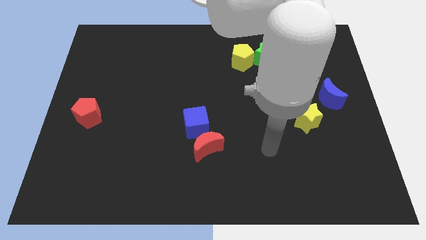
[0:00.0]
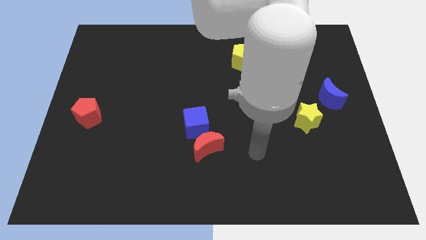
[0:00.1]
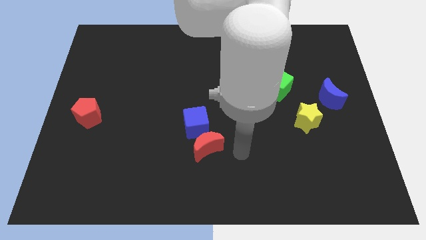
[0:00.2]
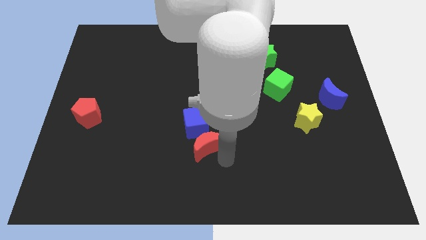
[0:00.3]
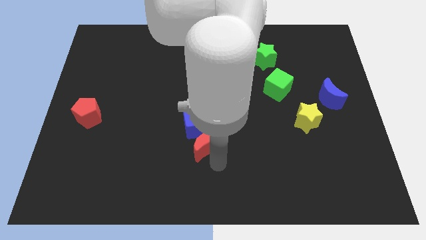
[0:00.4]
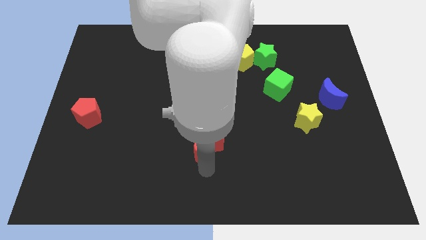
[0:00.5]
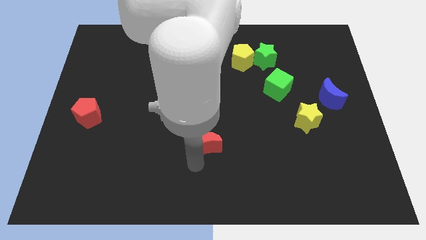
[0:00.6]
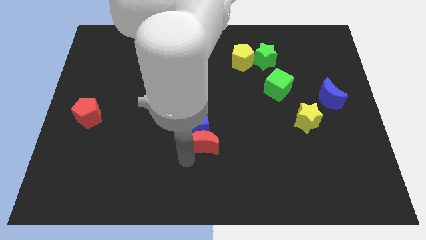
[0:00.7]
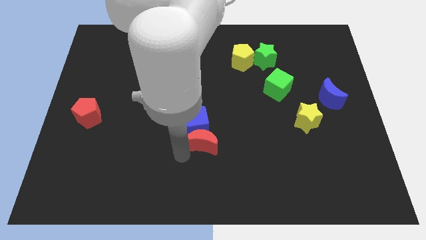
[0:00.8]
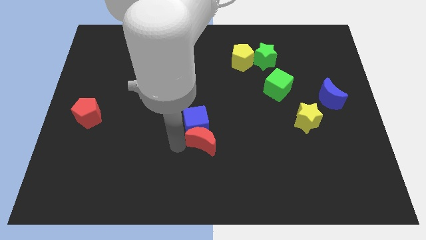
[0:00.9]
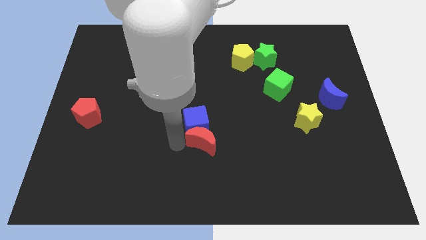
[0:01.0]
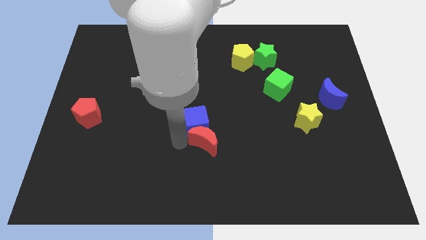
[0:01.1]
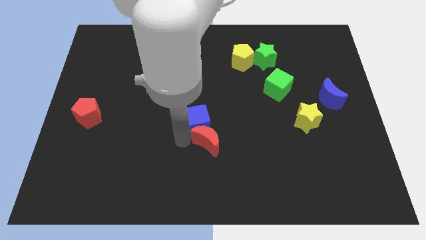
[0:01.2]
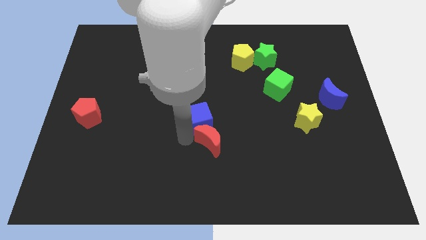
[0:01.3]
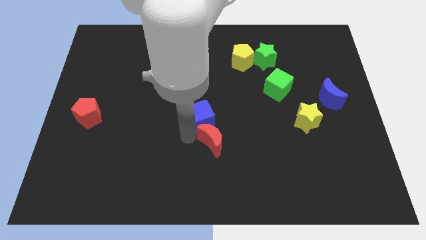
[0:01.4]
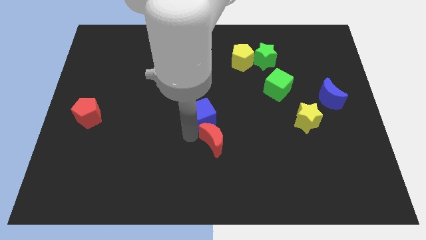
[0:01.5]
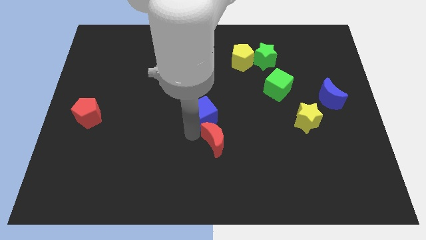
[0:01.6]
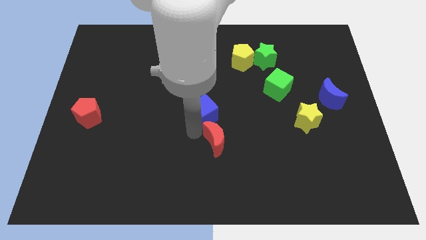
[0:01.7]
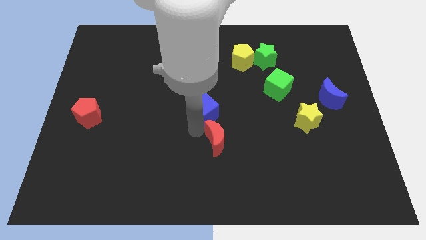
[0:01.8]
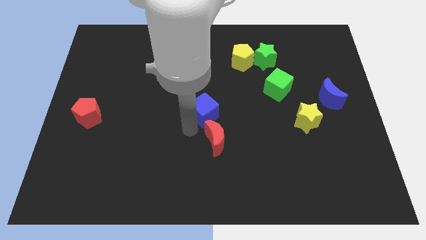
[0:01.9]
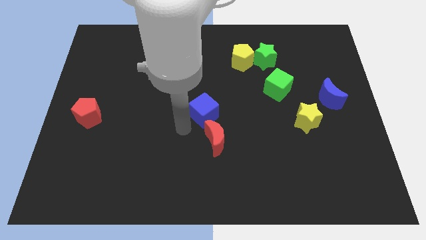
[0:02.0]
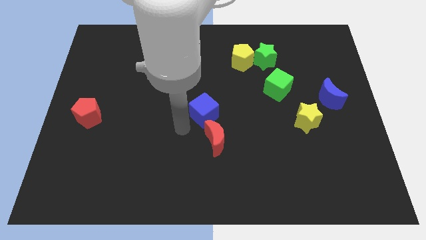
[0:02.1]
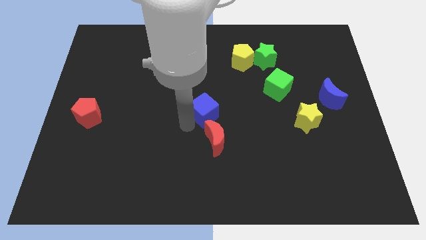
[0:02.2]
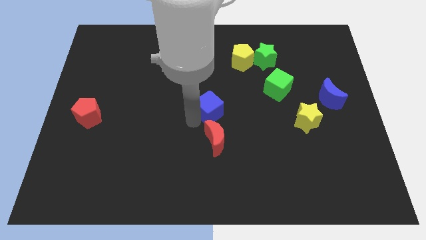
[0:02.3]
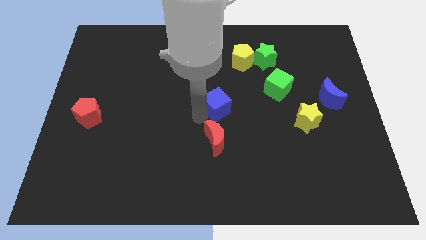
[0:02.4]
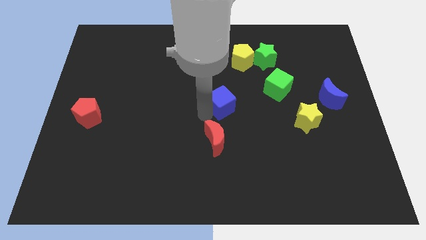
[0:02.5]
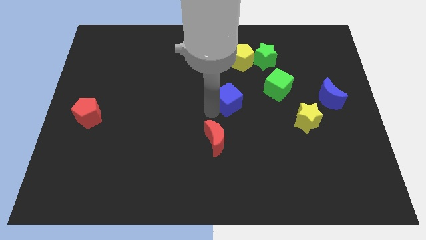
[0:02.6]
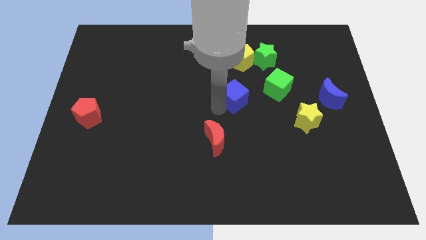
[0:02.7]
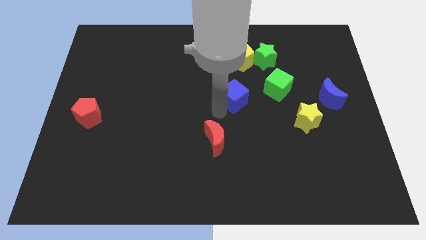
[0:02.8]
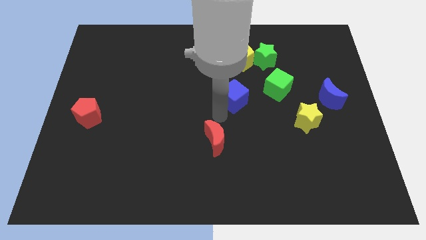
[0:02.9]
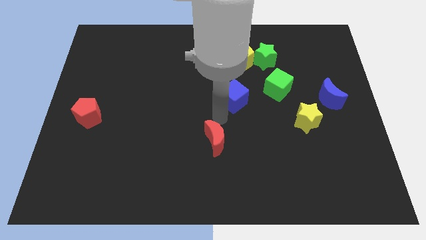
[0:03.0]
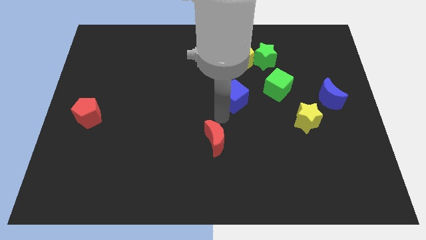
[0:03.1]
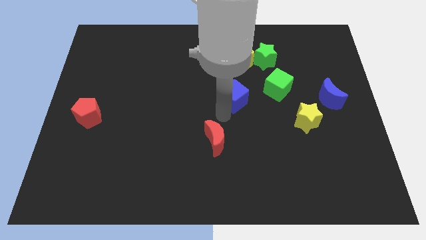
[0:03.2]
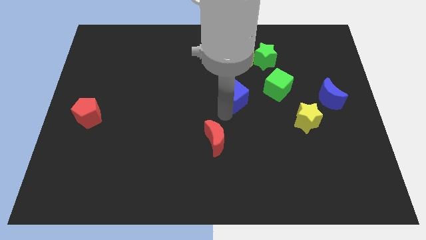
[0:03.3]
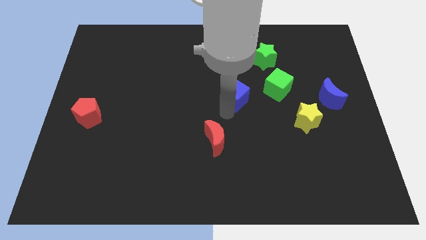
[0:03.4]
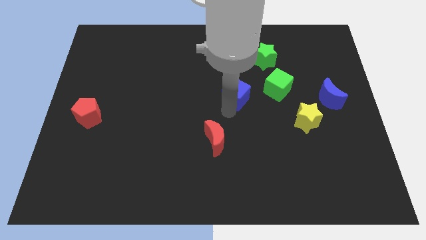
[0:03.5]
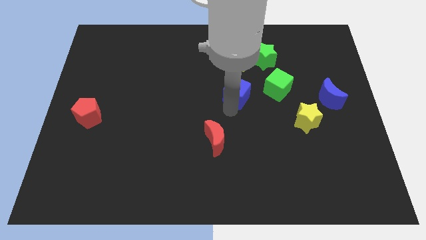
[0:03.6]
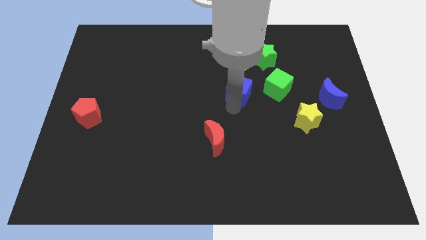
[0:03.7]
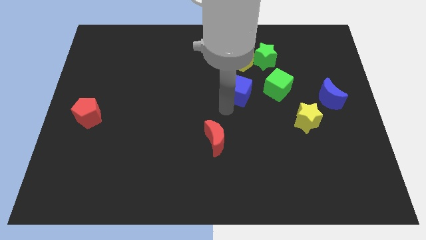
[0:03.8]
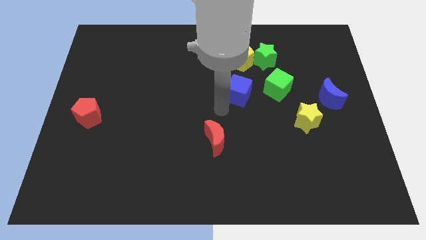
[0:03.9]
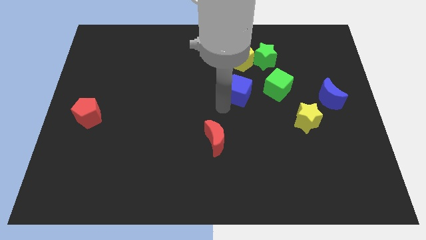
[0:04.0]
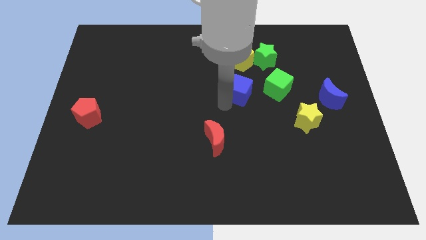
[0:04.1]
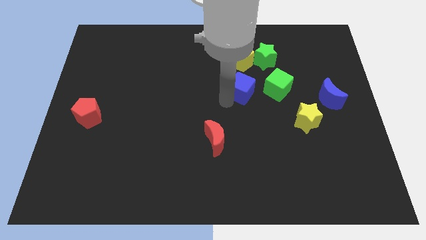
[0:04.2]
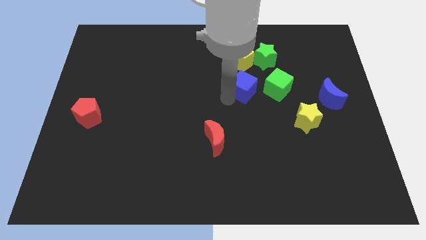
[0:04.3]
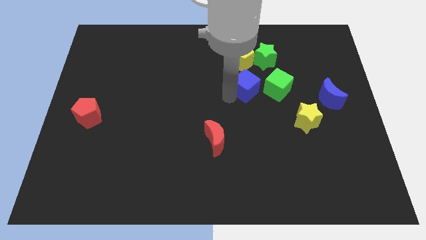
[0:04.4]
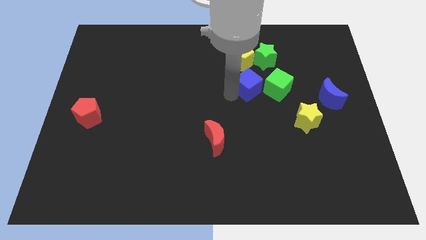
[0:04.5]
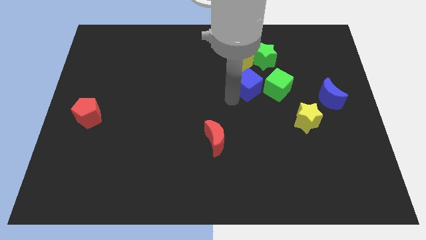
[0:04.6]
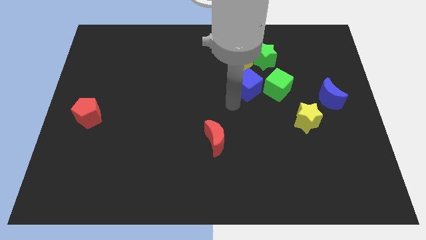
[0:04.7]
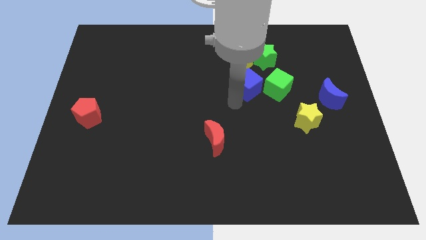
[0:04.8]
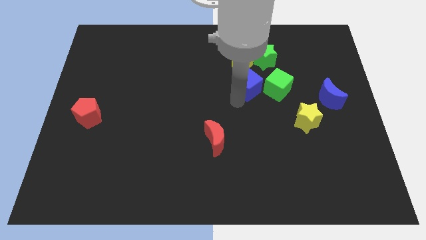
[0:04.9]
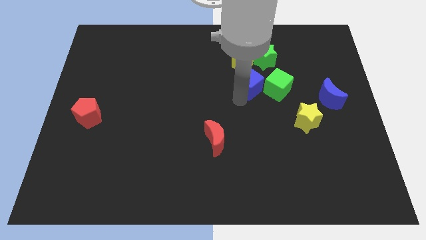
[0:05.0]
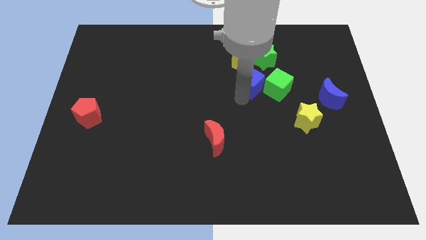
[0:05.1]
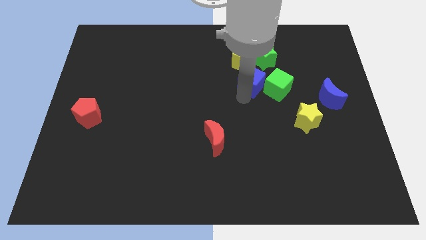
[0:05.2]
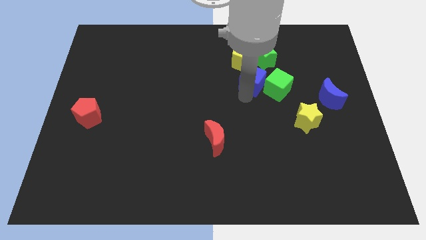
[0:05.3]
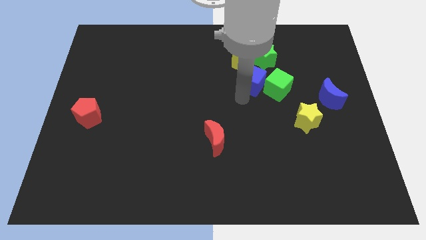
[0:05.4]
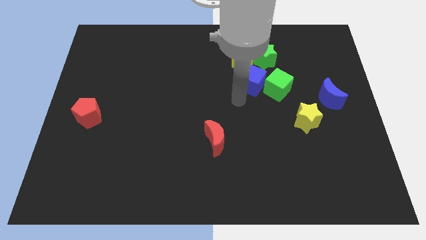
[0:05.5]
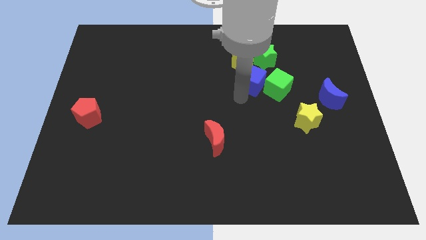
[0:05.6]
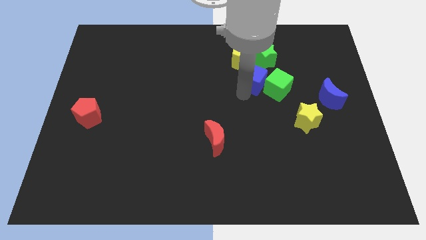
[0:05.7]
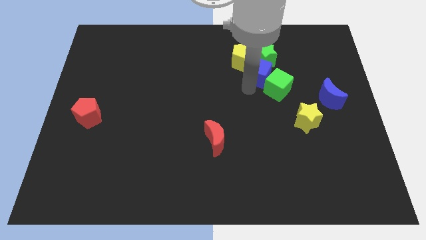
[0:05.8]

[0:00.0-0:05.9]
move the blue cube next to the green star

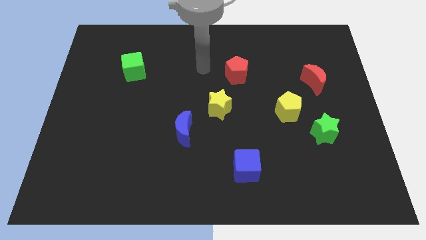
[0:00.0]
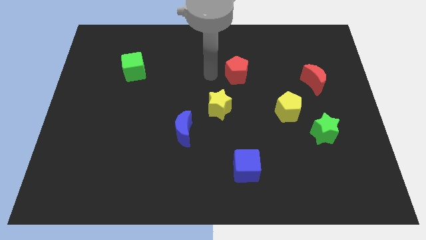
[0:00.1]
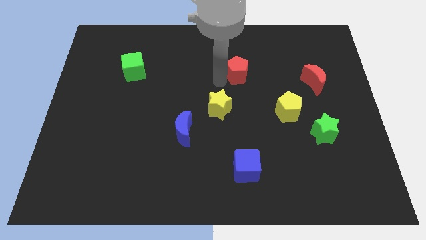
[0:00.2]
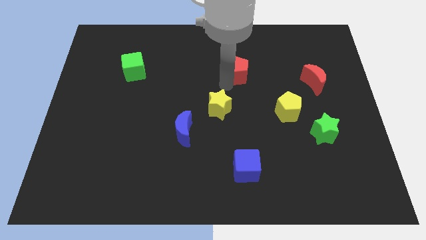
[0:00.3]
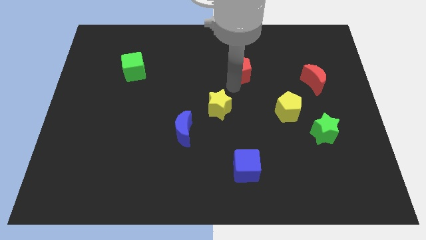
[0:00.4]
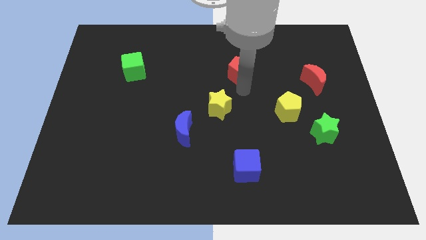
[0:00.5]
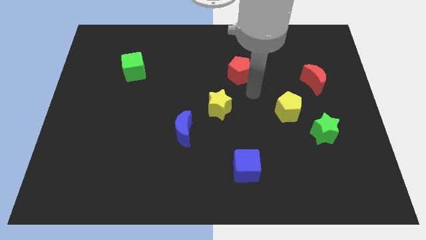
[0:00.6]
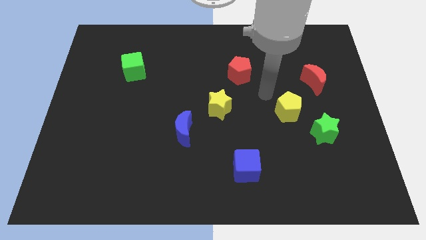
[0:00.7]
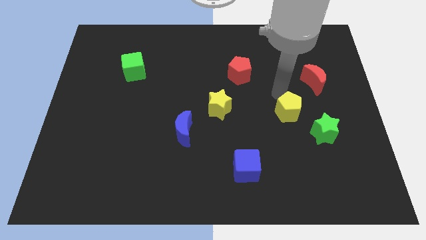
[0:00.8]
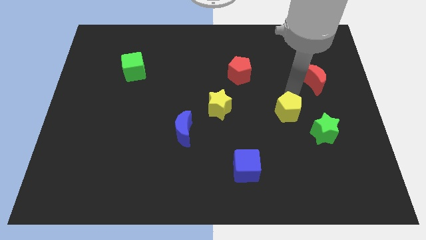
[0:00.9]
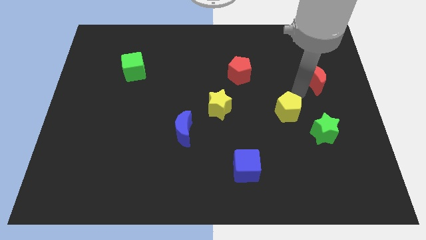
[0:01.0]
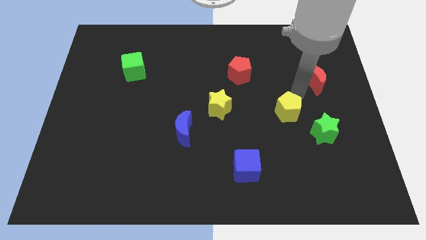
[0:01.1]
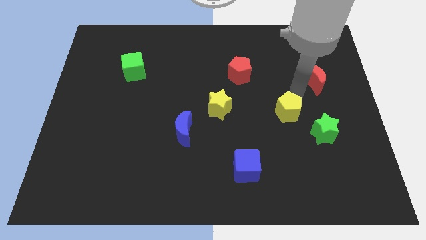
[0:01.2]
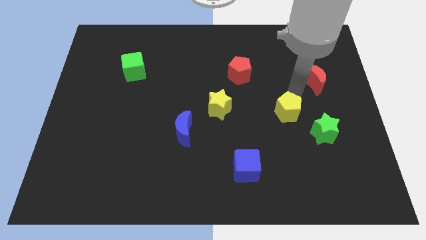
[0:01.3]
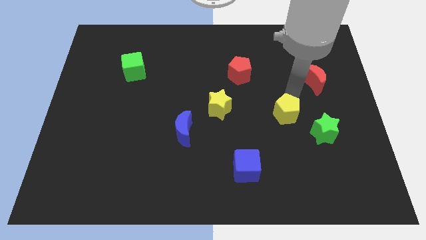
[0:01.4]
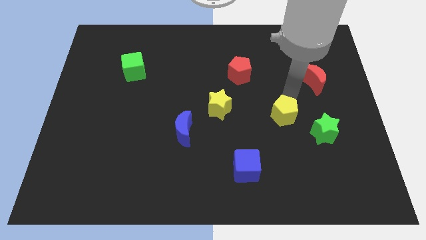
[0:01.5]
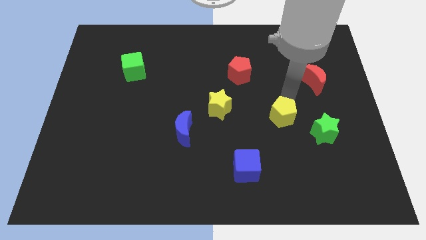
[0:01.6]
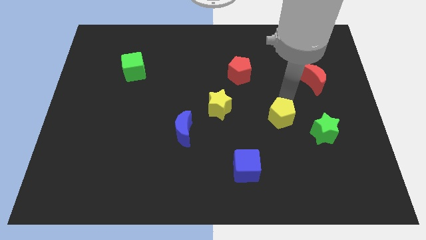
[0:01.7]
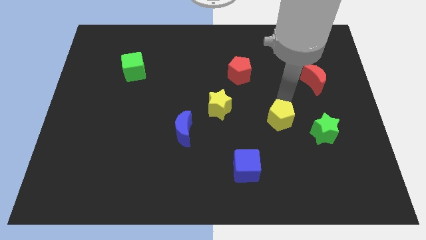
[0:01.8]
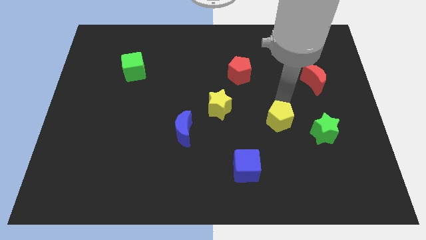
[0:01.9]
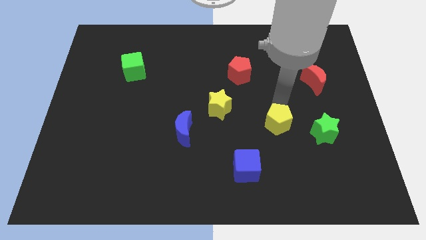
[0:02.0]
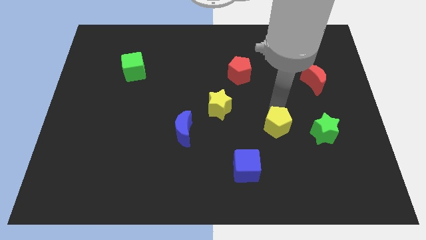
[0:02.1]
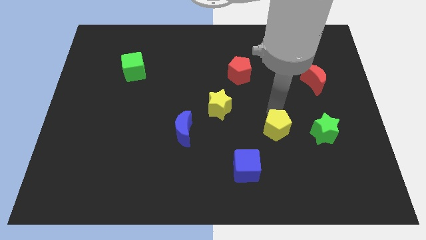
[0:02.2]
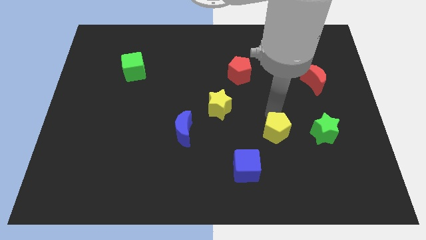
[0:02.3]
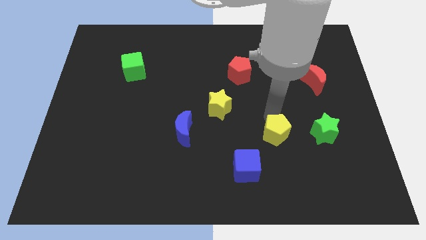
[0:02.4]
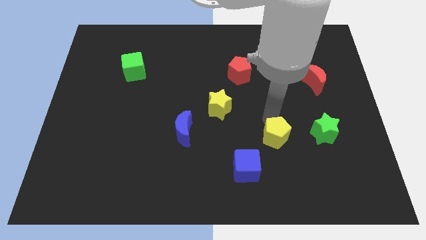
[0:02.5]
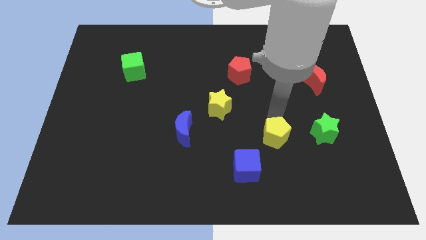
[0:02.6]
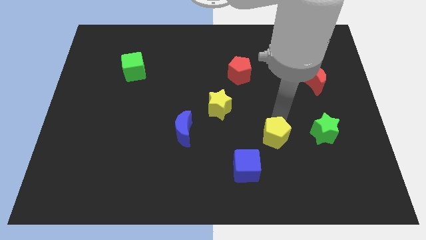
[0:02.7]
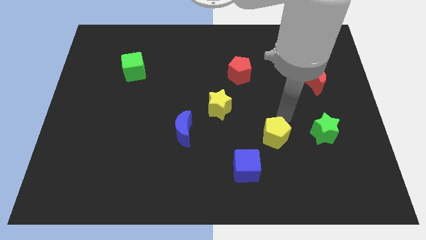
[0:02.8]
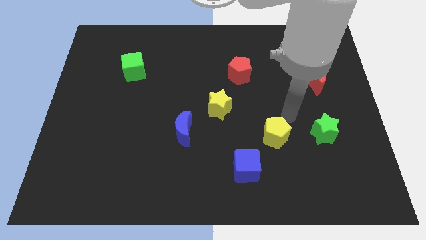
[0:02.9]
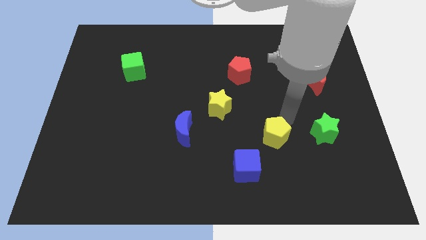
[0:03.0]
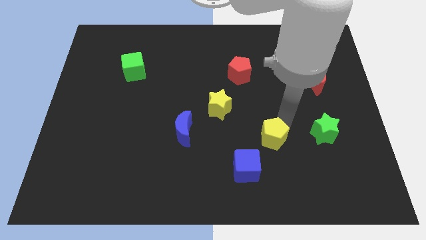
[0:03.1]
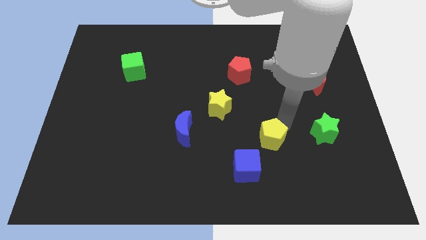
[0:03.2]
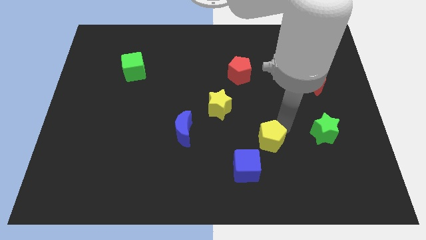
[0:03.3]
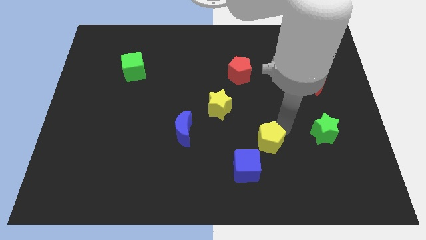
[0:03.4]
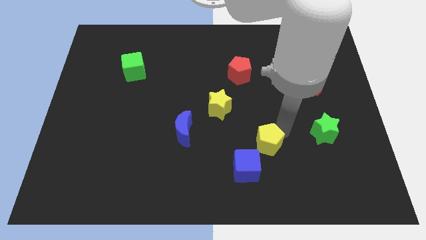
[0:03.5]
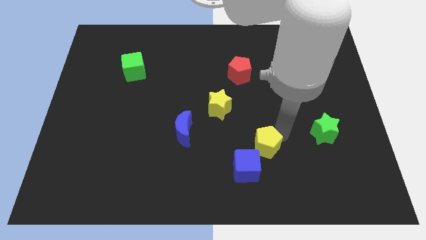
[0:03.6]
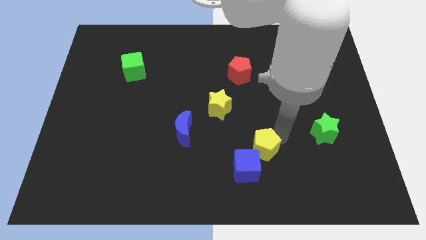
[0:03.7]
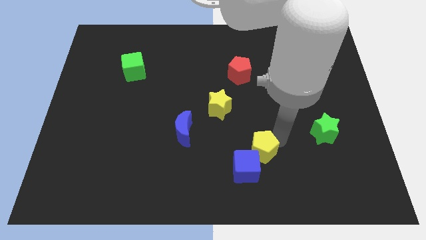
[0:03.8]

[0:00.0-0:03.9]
move the yellow pentagon towards the blue cube
